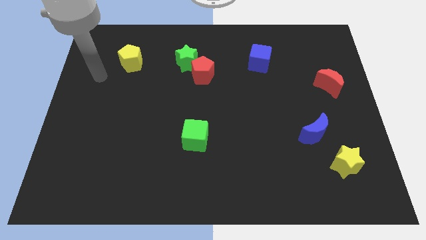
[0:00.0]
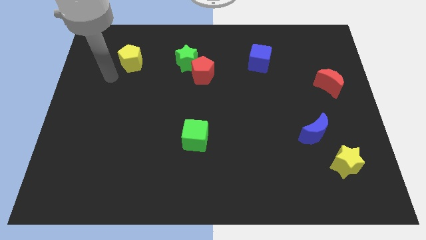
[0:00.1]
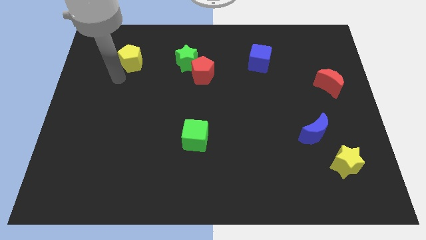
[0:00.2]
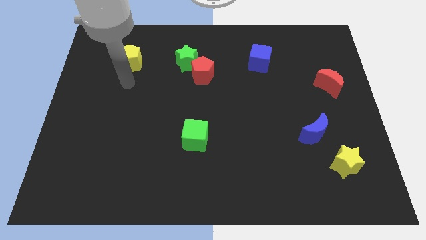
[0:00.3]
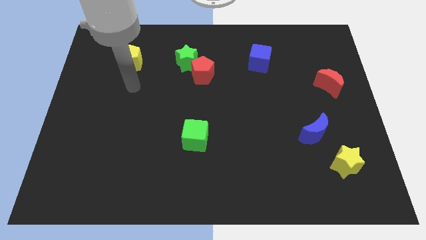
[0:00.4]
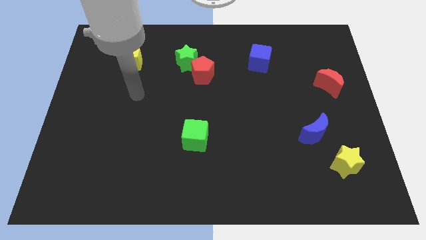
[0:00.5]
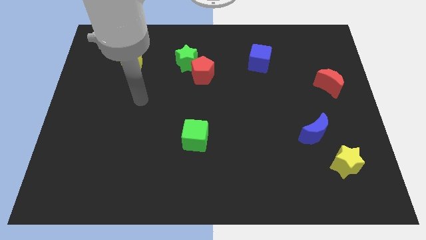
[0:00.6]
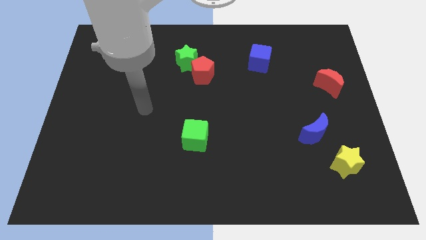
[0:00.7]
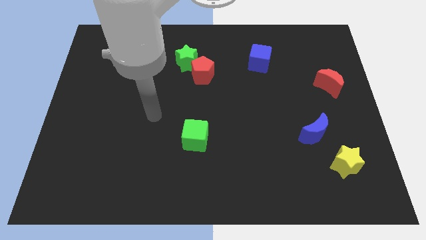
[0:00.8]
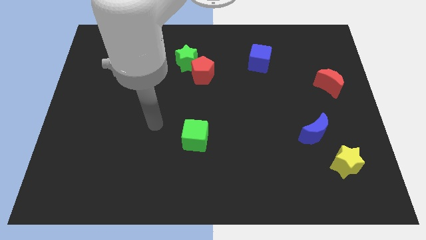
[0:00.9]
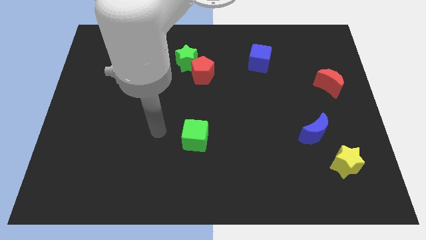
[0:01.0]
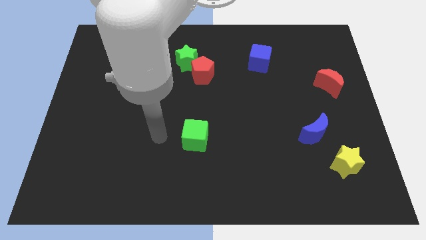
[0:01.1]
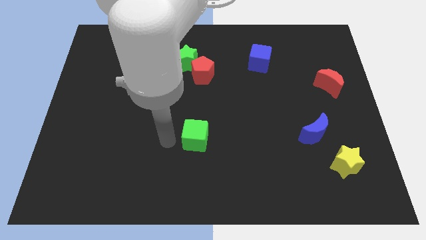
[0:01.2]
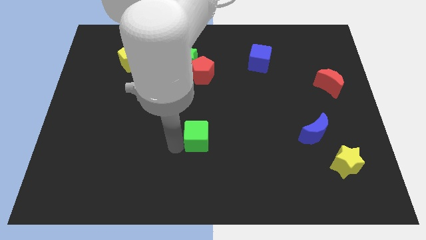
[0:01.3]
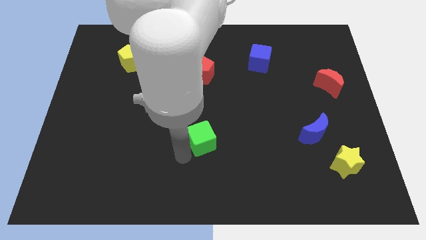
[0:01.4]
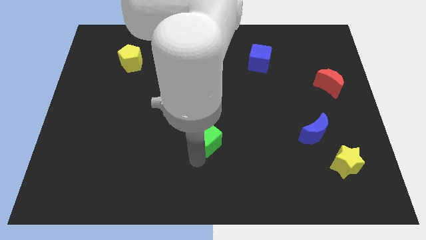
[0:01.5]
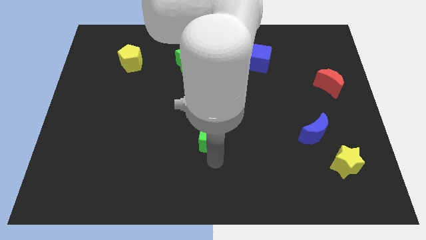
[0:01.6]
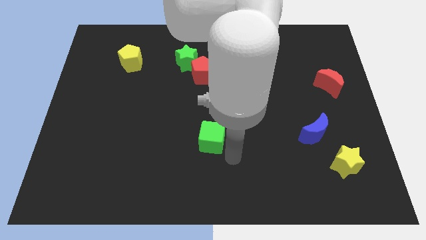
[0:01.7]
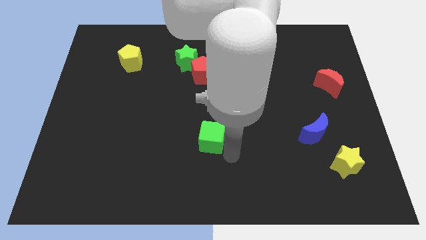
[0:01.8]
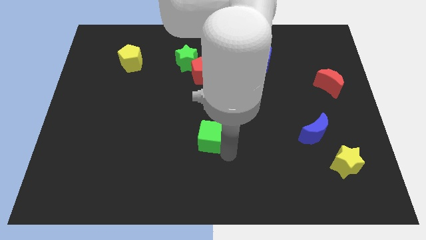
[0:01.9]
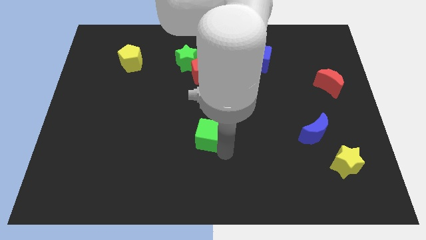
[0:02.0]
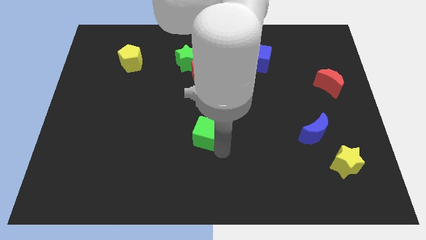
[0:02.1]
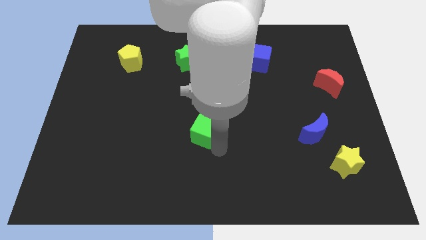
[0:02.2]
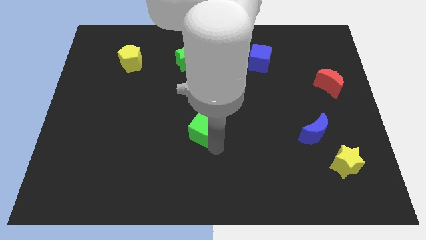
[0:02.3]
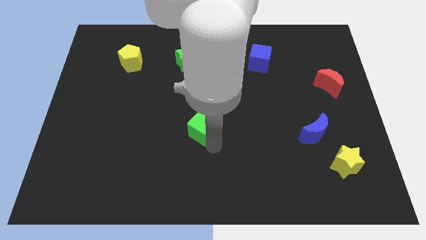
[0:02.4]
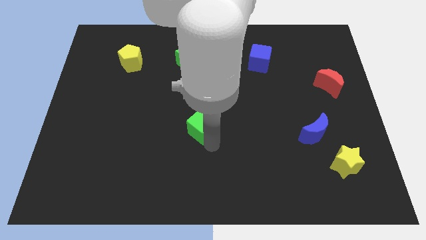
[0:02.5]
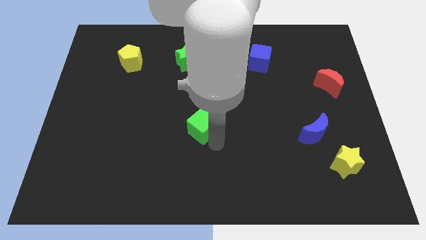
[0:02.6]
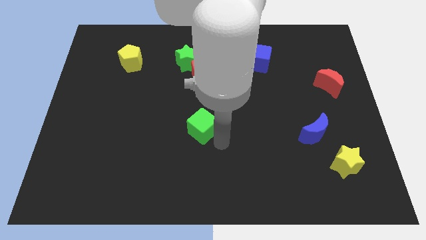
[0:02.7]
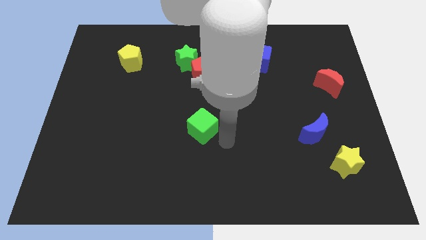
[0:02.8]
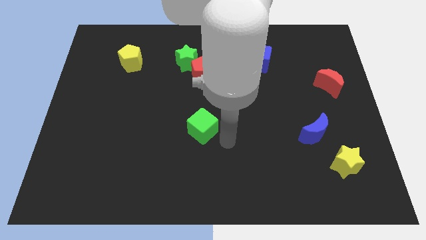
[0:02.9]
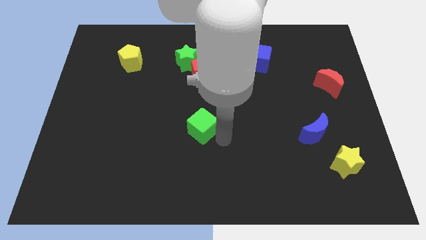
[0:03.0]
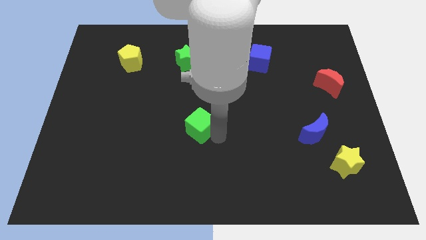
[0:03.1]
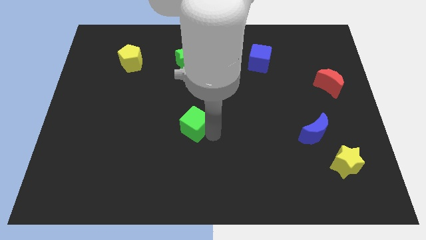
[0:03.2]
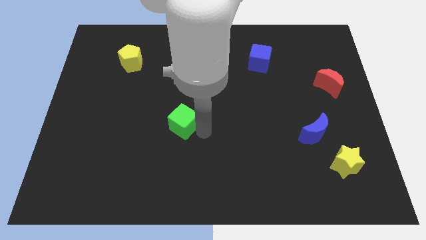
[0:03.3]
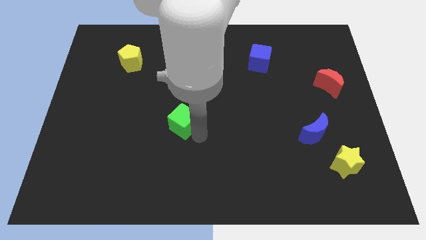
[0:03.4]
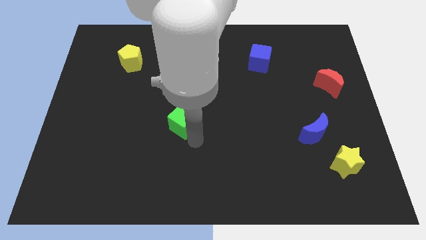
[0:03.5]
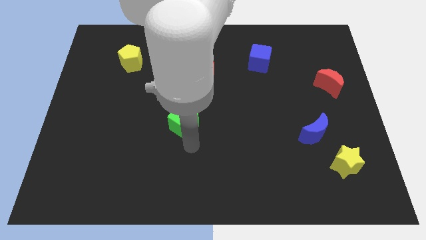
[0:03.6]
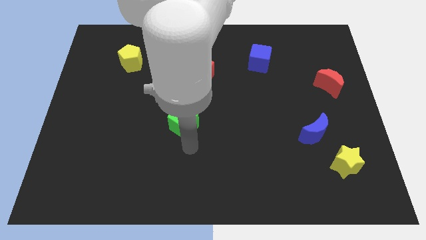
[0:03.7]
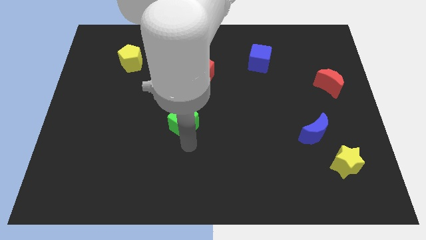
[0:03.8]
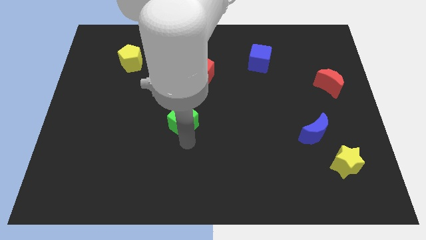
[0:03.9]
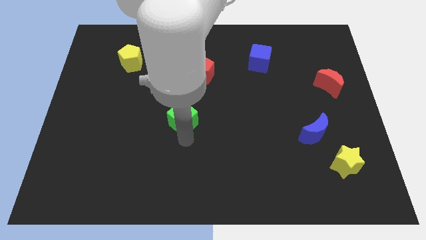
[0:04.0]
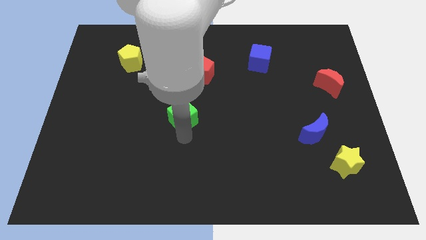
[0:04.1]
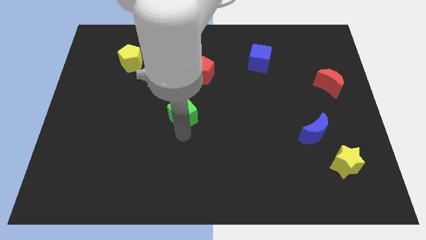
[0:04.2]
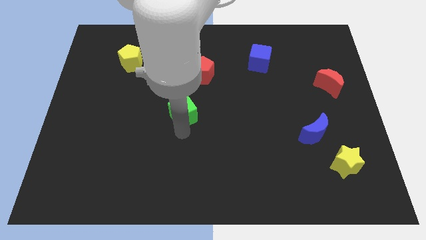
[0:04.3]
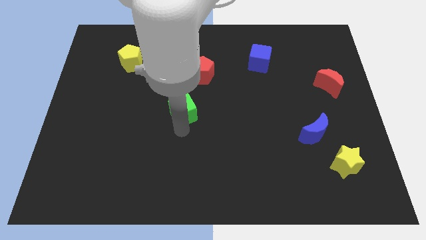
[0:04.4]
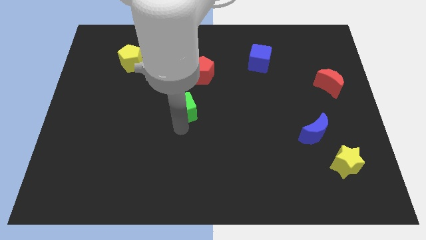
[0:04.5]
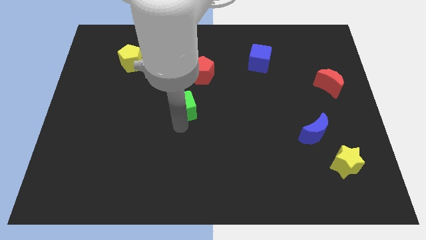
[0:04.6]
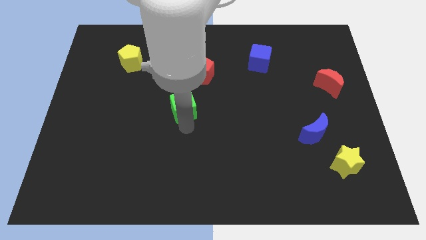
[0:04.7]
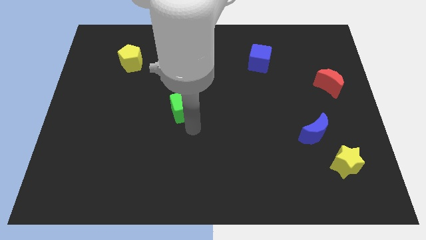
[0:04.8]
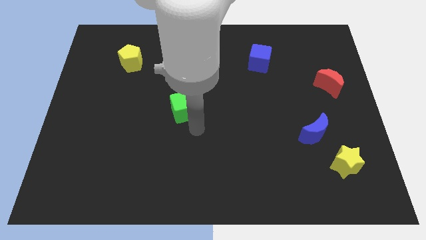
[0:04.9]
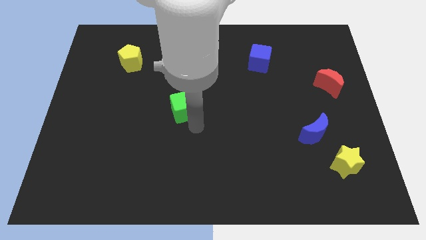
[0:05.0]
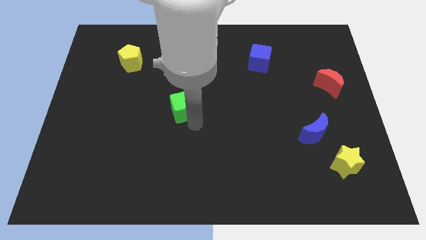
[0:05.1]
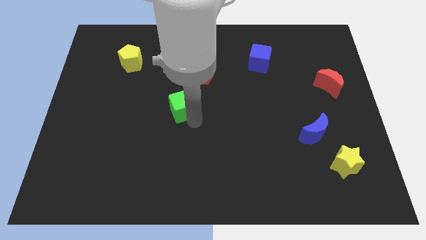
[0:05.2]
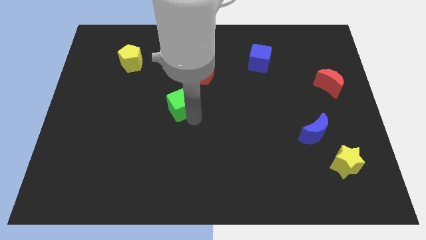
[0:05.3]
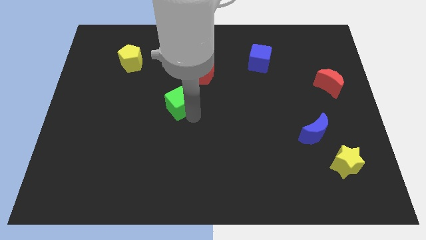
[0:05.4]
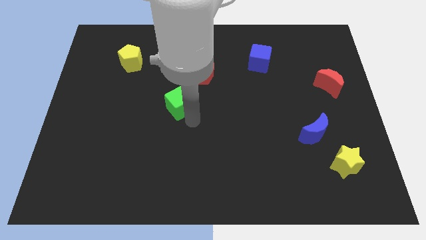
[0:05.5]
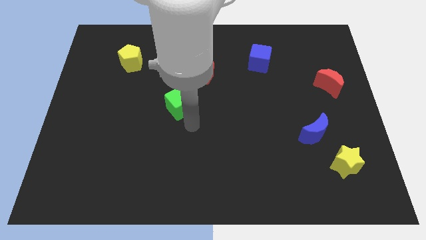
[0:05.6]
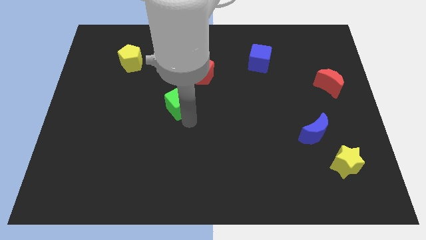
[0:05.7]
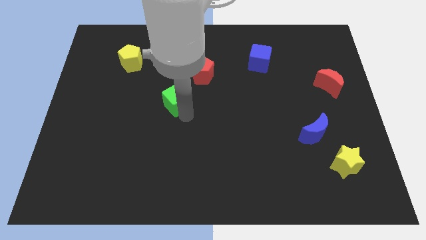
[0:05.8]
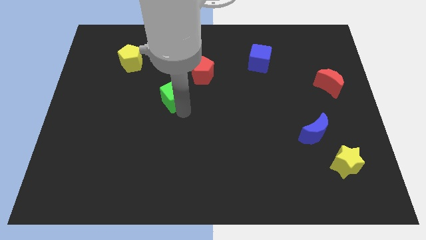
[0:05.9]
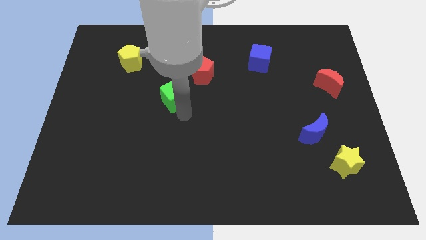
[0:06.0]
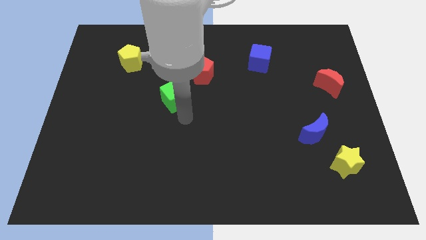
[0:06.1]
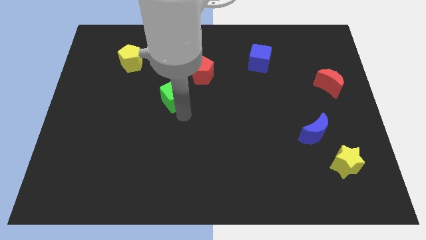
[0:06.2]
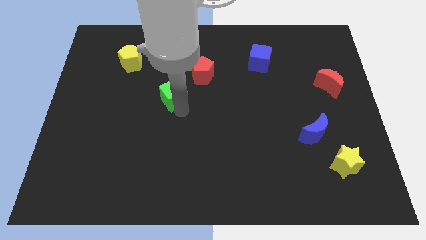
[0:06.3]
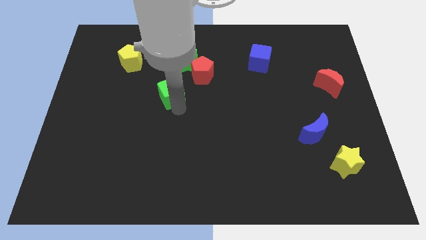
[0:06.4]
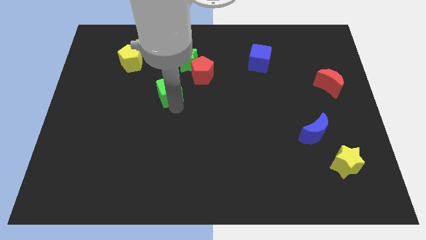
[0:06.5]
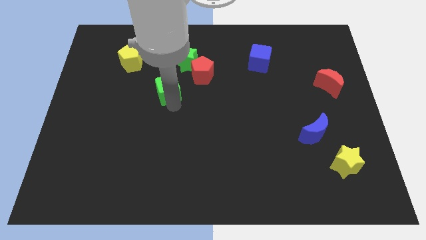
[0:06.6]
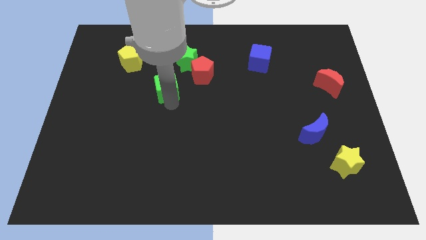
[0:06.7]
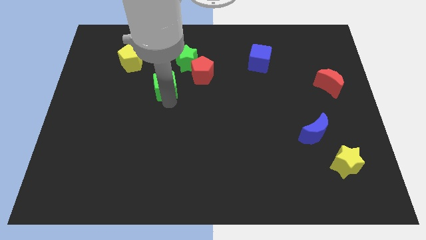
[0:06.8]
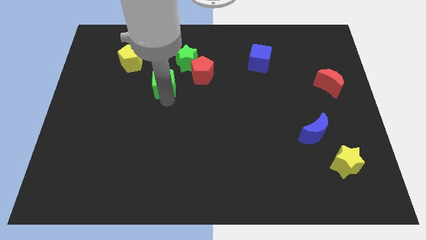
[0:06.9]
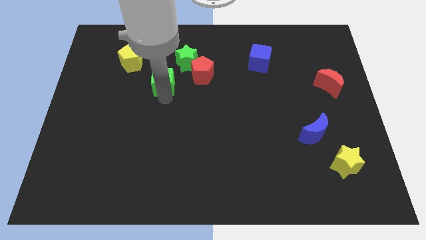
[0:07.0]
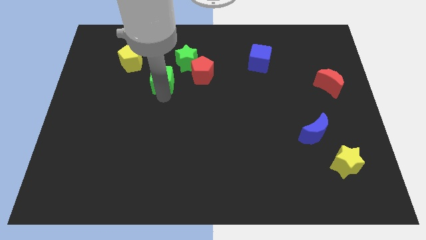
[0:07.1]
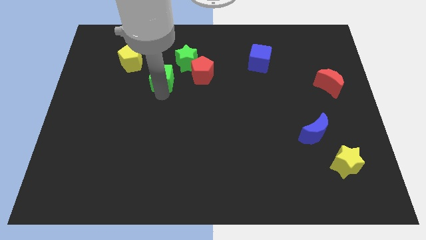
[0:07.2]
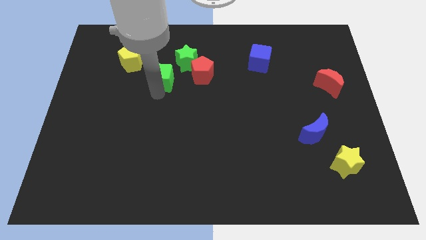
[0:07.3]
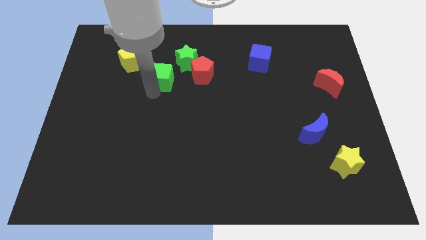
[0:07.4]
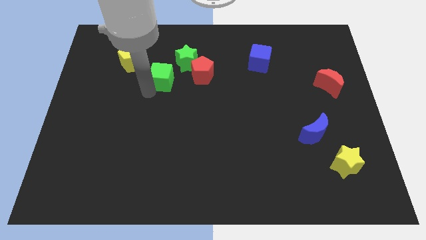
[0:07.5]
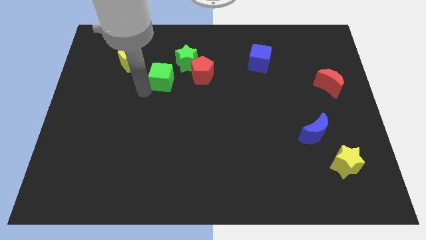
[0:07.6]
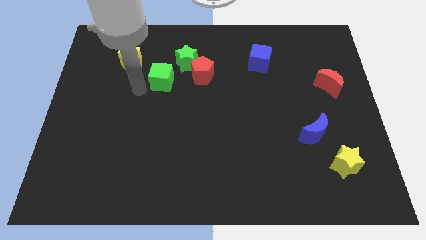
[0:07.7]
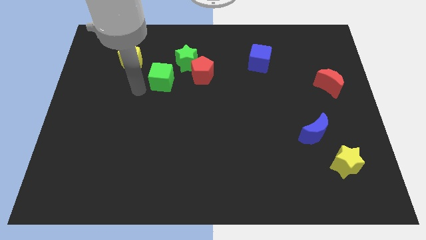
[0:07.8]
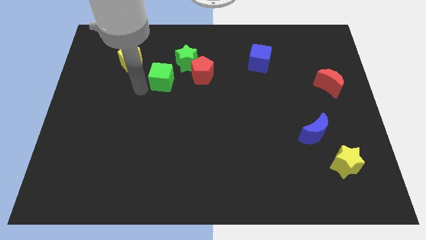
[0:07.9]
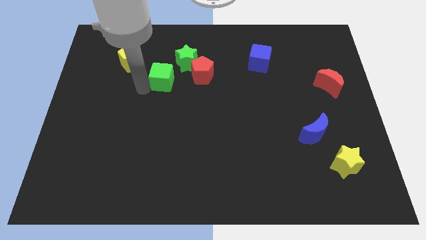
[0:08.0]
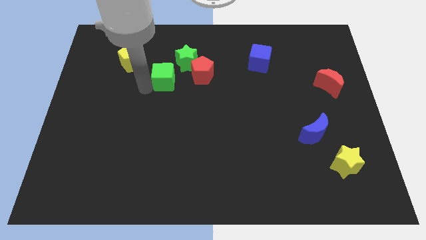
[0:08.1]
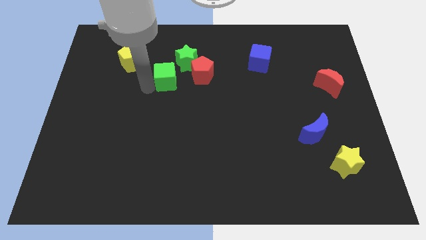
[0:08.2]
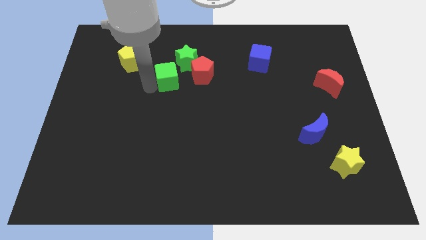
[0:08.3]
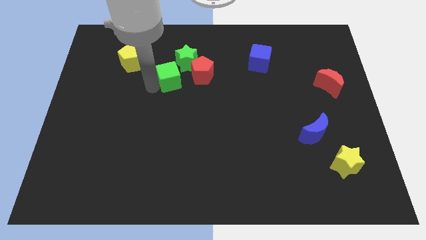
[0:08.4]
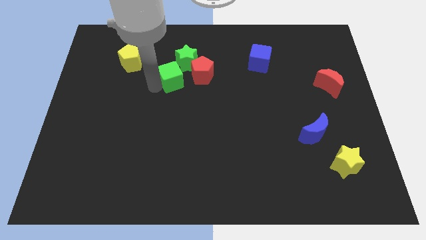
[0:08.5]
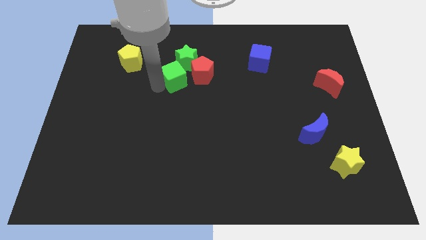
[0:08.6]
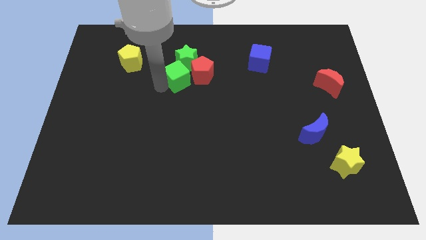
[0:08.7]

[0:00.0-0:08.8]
push the green cube next to the green star
